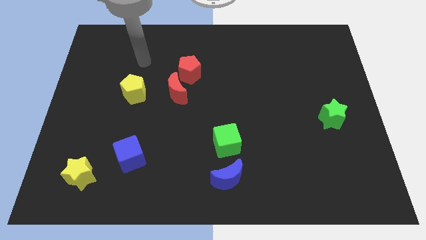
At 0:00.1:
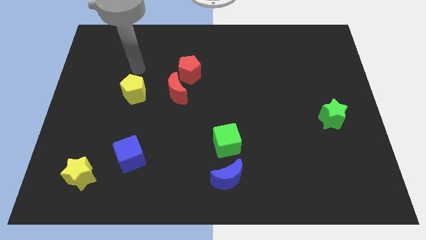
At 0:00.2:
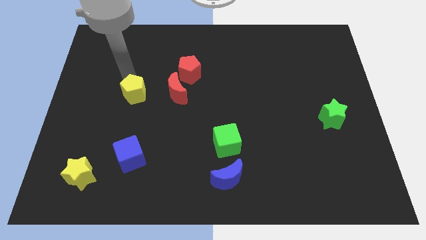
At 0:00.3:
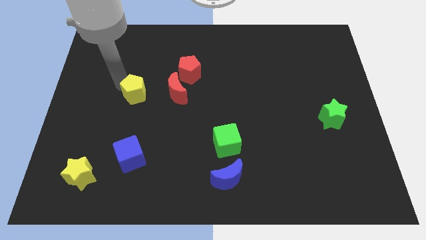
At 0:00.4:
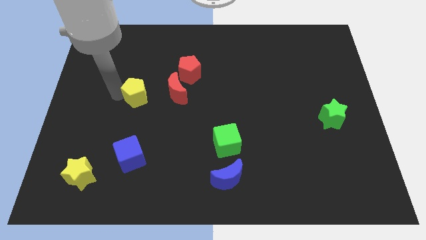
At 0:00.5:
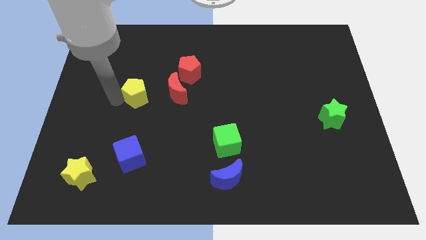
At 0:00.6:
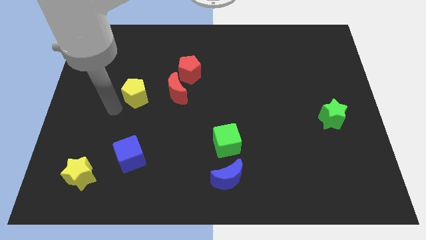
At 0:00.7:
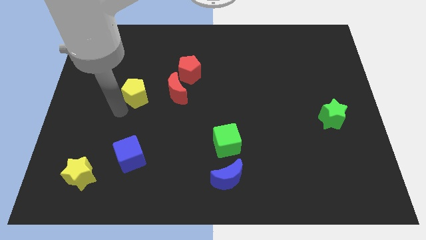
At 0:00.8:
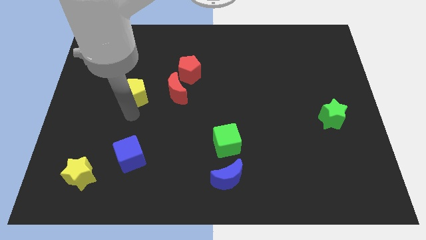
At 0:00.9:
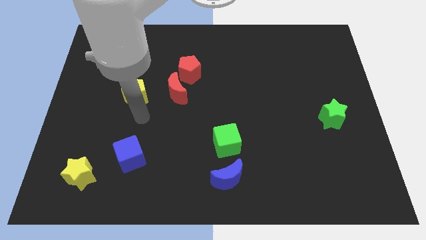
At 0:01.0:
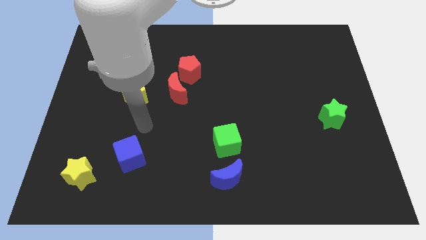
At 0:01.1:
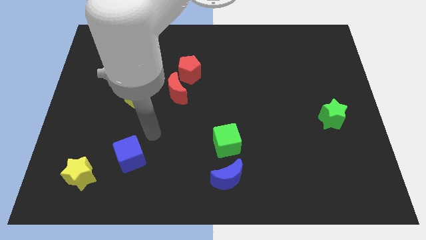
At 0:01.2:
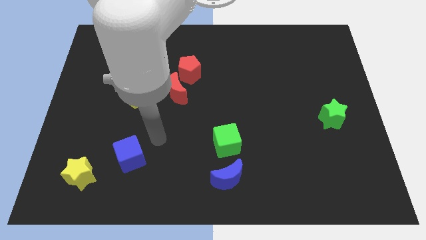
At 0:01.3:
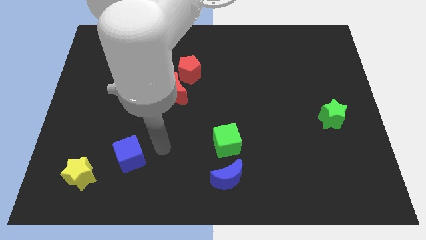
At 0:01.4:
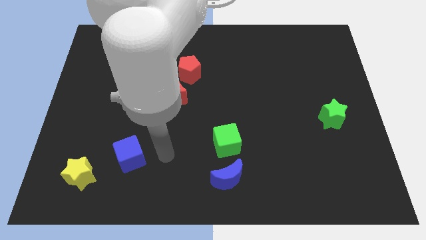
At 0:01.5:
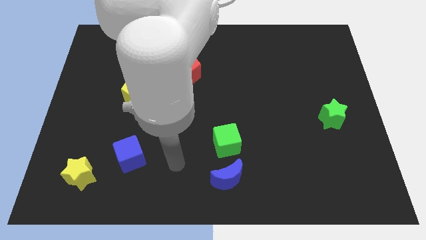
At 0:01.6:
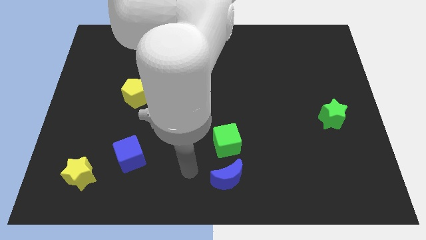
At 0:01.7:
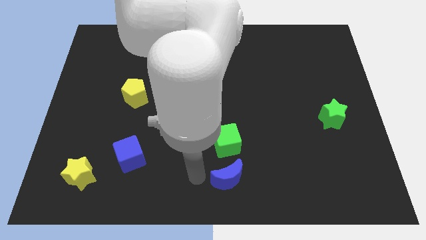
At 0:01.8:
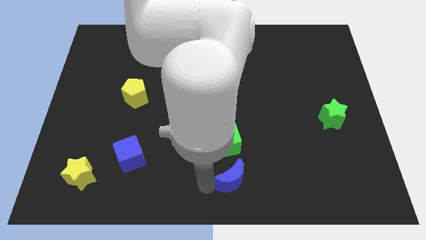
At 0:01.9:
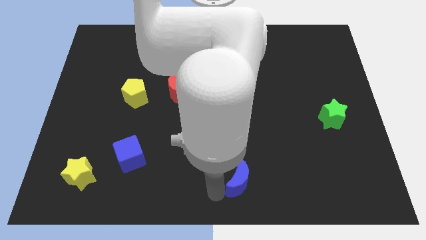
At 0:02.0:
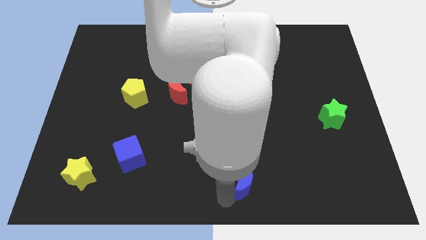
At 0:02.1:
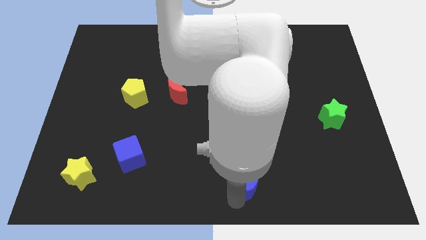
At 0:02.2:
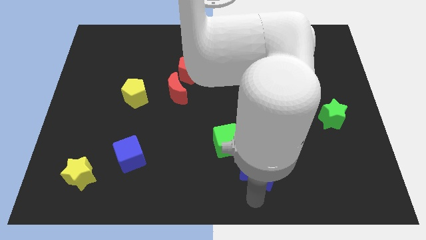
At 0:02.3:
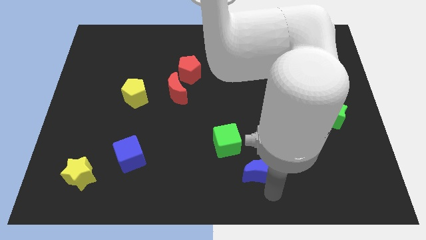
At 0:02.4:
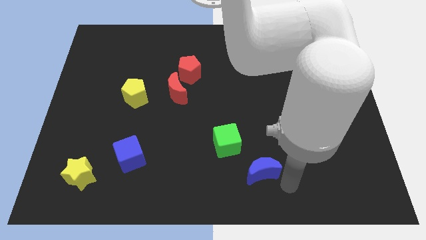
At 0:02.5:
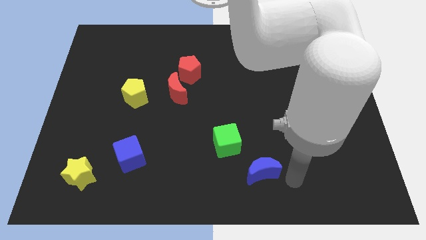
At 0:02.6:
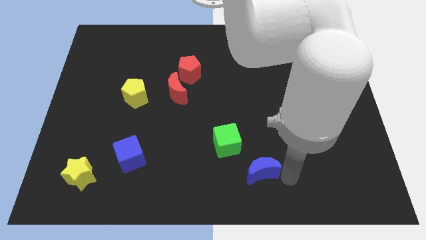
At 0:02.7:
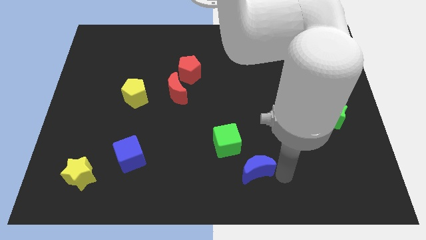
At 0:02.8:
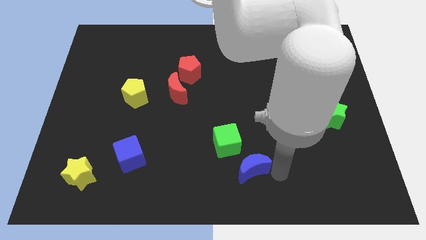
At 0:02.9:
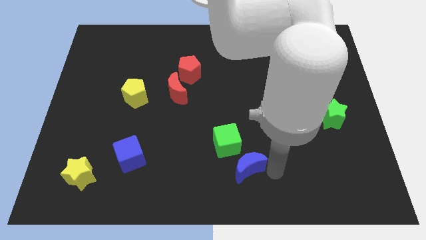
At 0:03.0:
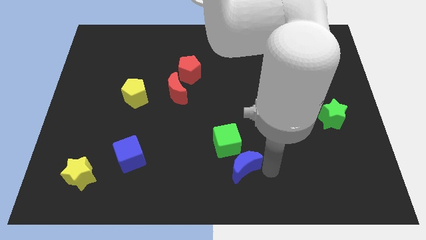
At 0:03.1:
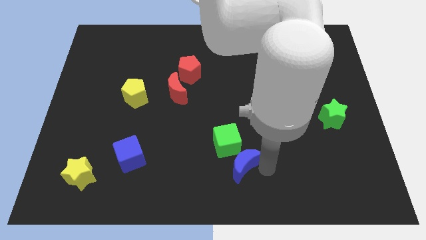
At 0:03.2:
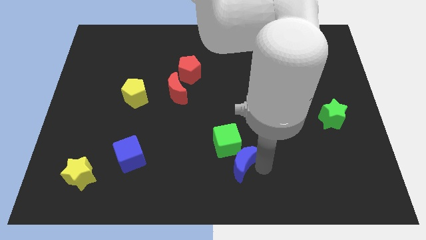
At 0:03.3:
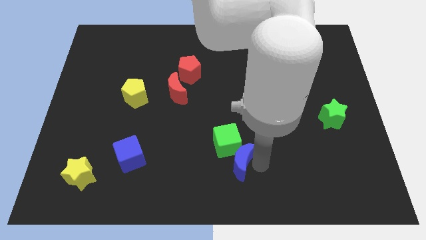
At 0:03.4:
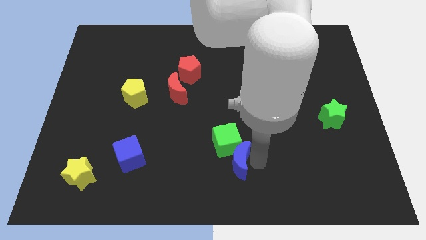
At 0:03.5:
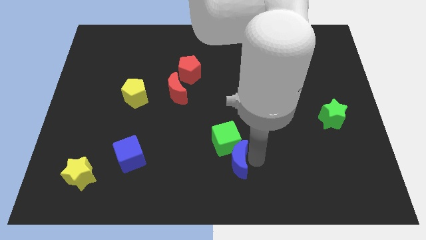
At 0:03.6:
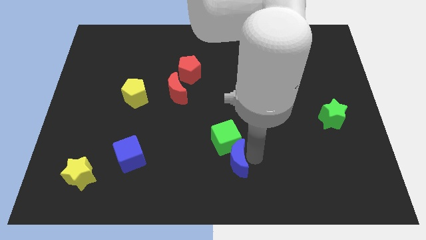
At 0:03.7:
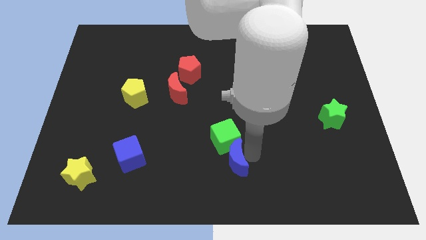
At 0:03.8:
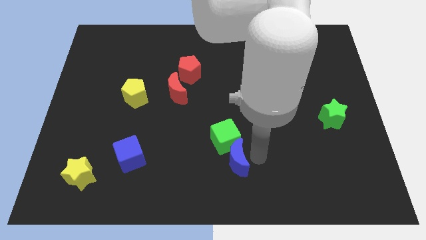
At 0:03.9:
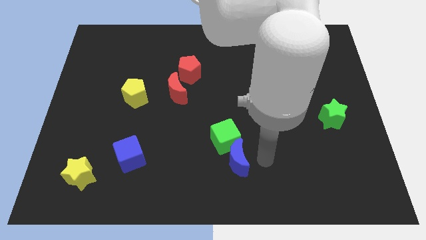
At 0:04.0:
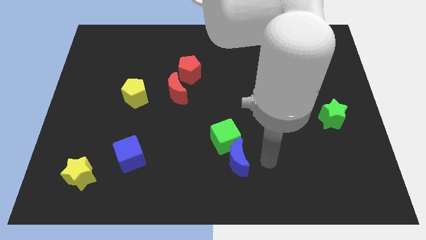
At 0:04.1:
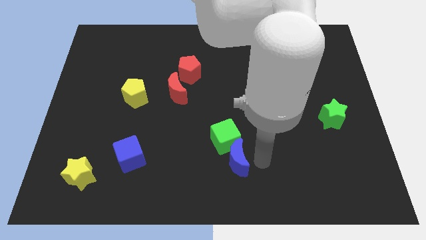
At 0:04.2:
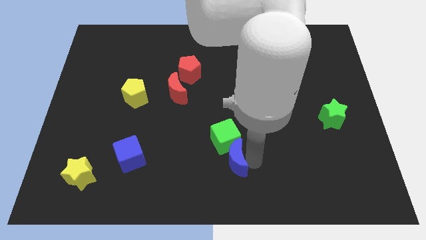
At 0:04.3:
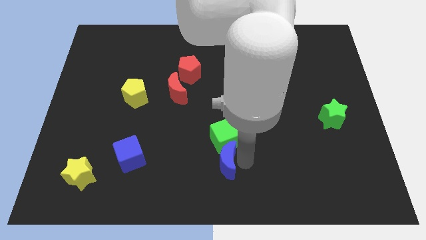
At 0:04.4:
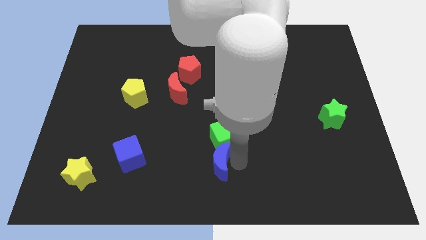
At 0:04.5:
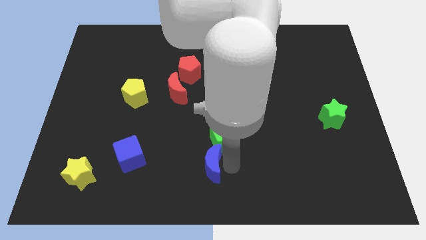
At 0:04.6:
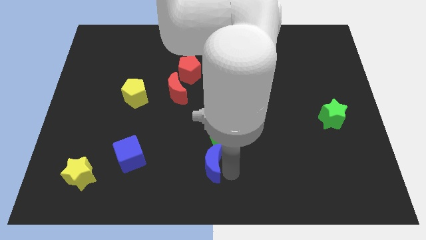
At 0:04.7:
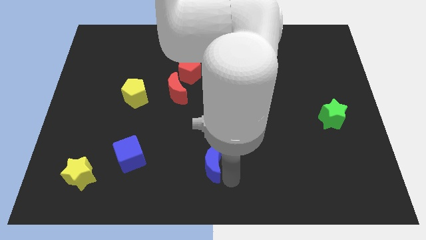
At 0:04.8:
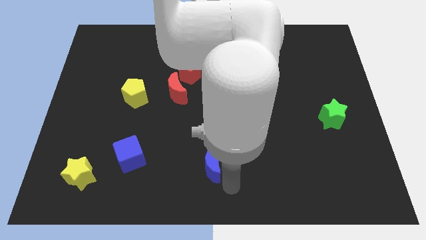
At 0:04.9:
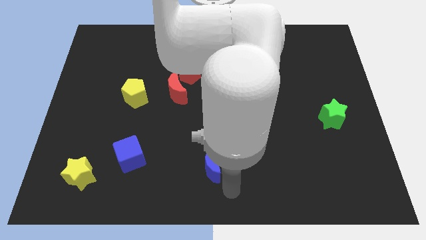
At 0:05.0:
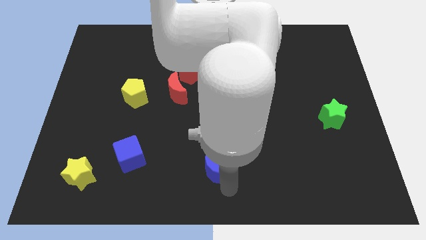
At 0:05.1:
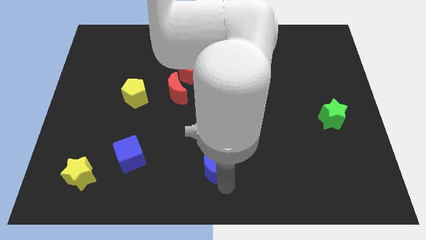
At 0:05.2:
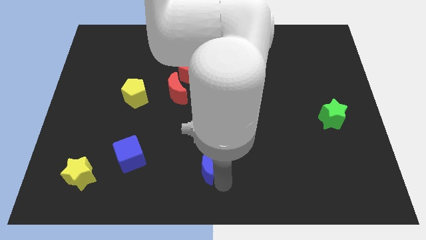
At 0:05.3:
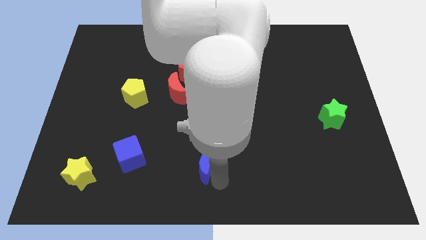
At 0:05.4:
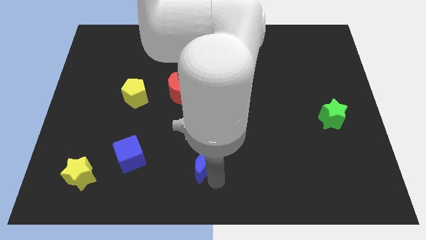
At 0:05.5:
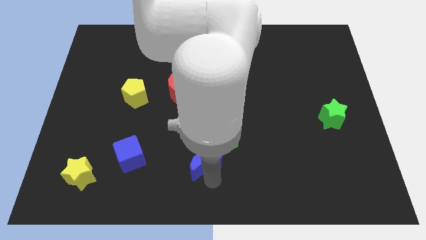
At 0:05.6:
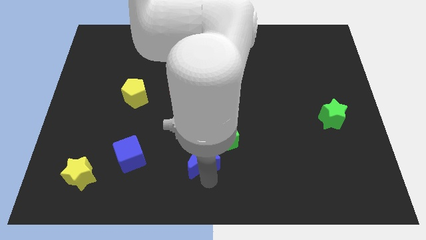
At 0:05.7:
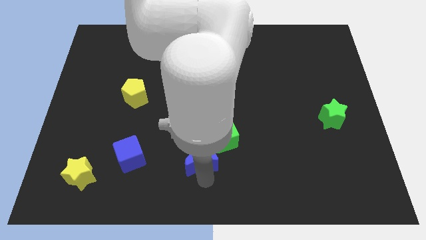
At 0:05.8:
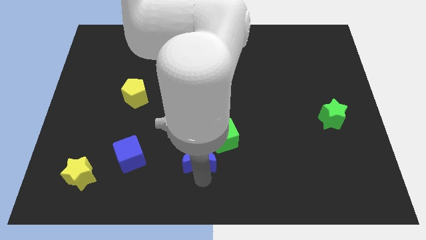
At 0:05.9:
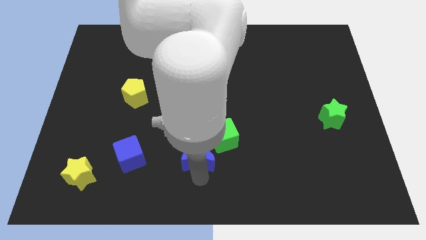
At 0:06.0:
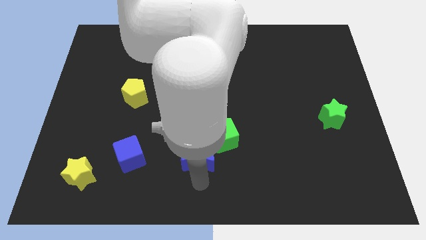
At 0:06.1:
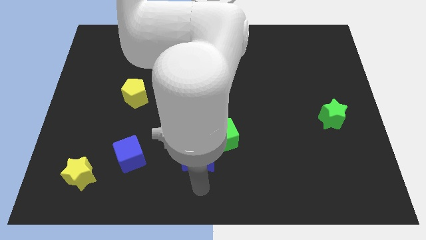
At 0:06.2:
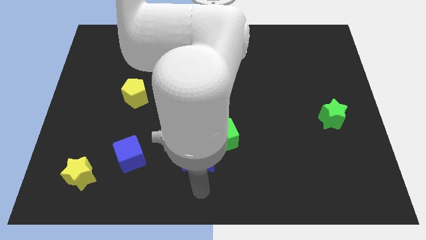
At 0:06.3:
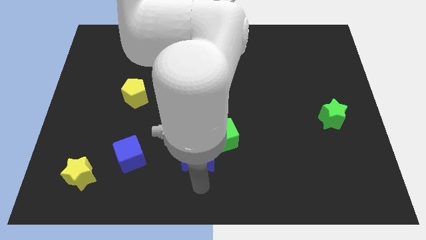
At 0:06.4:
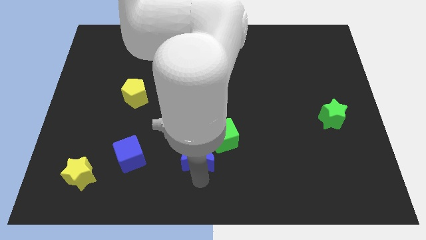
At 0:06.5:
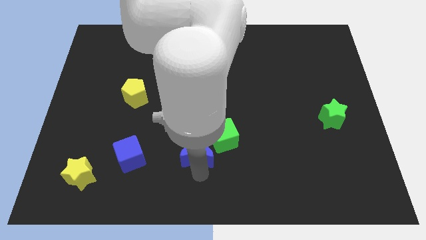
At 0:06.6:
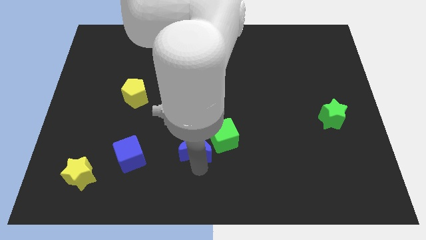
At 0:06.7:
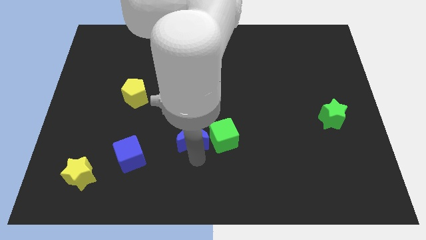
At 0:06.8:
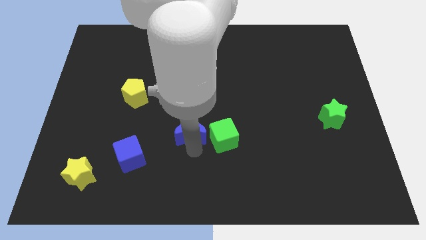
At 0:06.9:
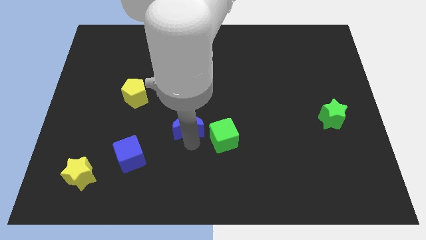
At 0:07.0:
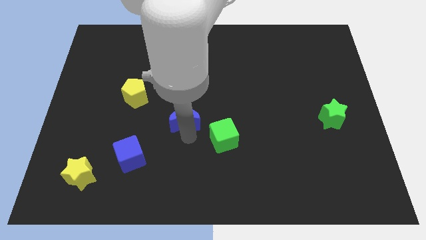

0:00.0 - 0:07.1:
put the blue moon to the bottom right side of the red moon
